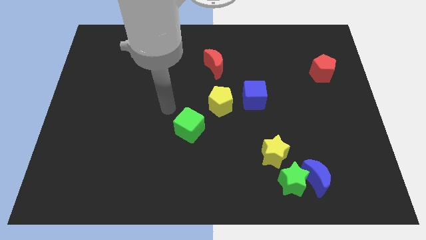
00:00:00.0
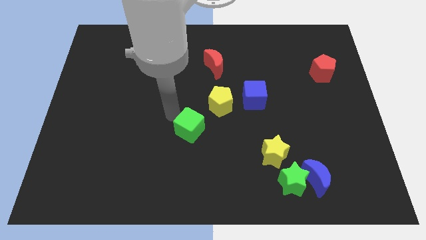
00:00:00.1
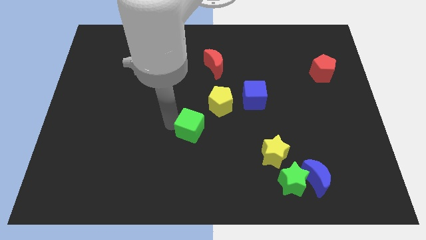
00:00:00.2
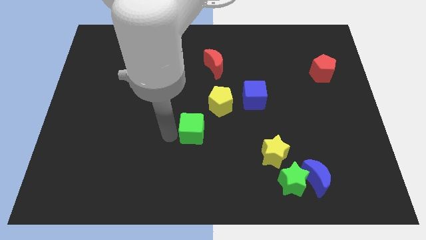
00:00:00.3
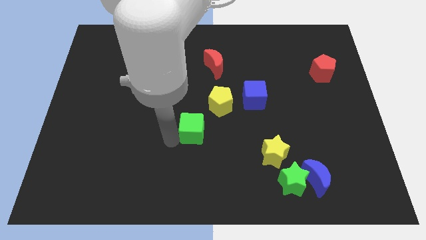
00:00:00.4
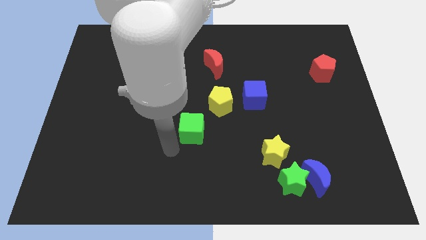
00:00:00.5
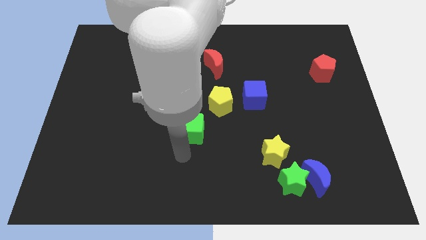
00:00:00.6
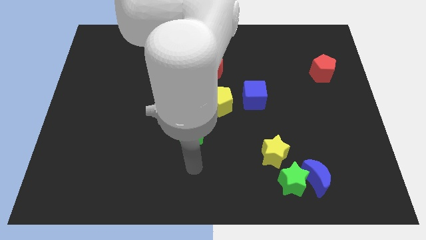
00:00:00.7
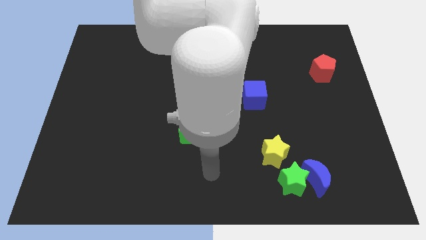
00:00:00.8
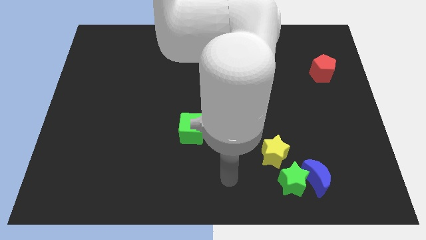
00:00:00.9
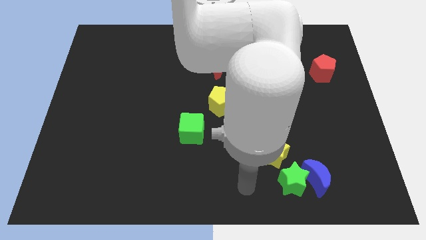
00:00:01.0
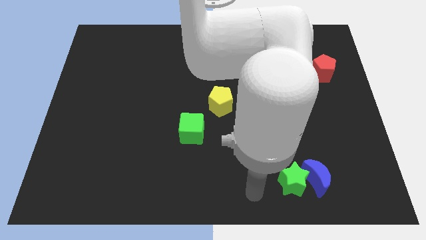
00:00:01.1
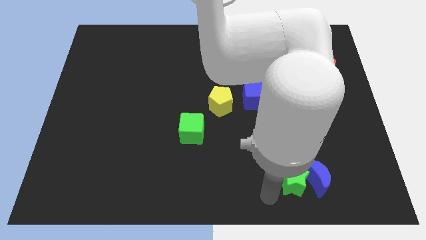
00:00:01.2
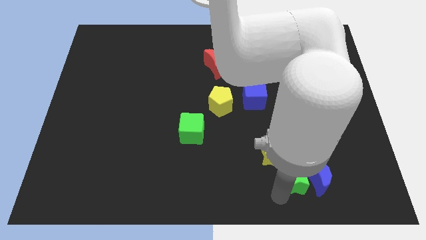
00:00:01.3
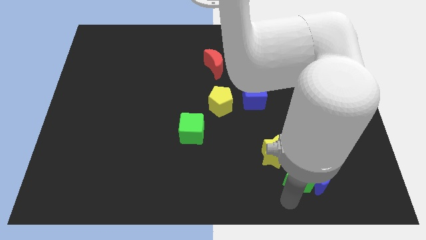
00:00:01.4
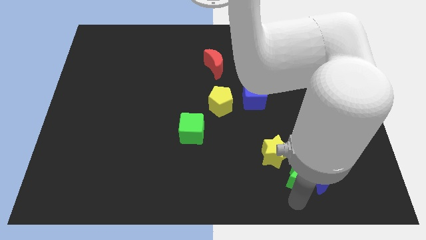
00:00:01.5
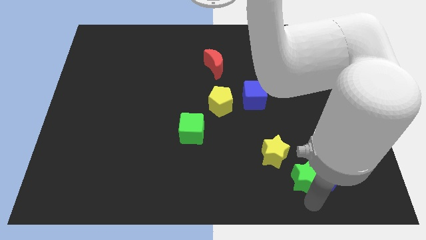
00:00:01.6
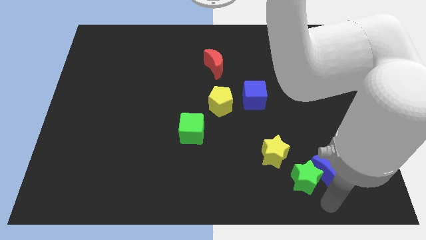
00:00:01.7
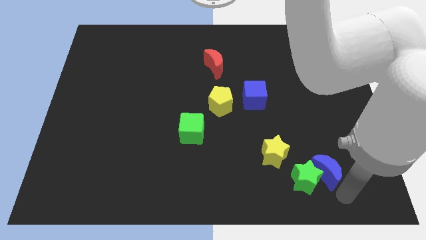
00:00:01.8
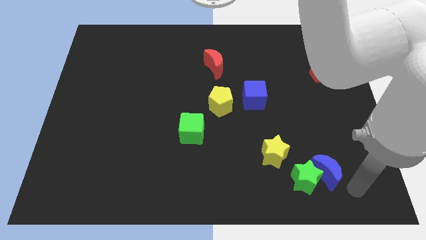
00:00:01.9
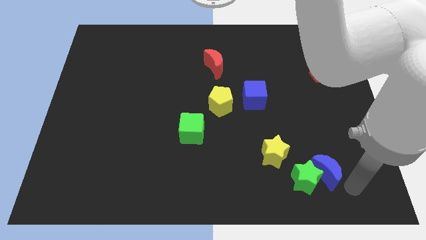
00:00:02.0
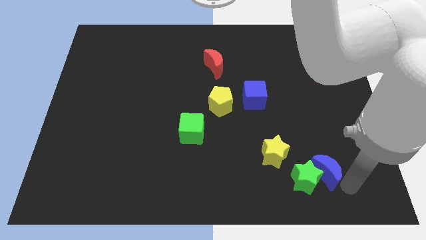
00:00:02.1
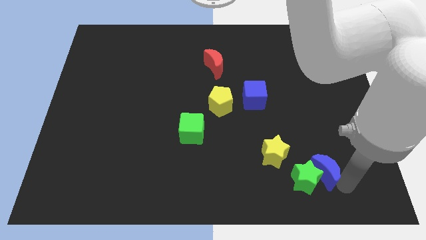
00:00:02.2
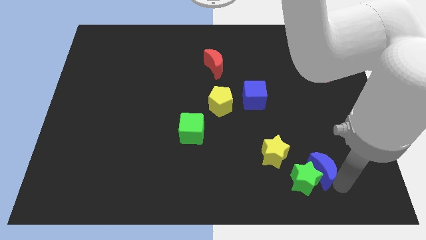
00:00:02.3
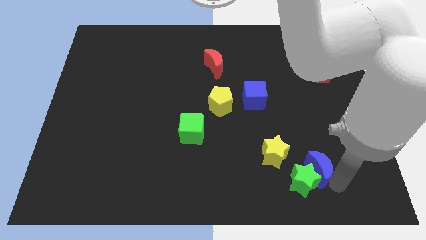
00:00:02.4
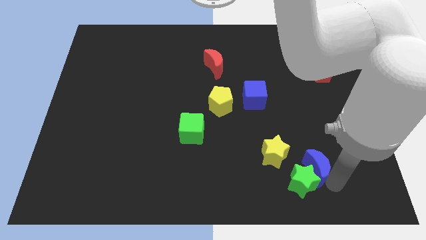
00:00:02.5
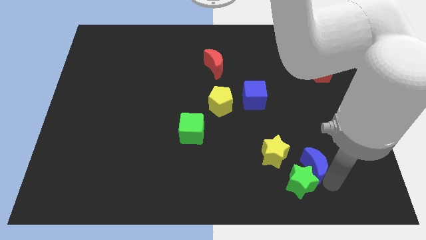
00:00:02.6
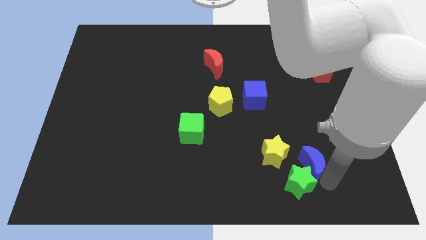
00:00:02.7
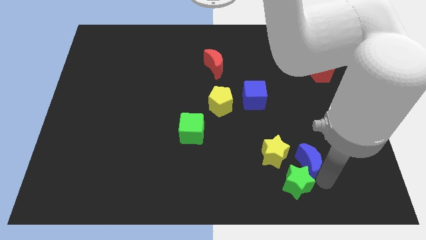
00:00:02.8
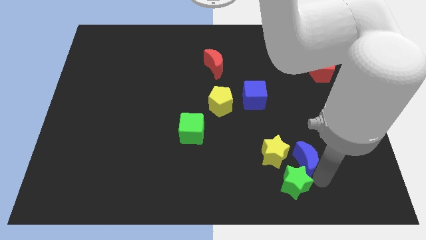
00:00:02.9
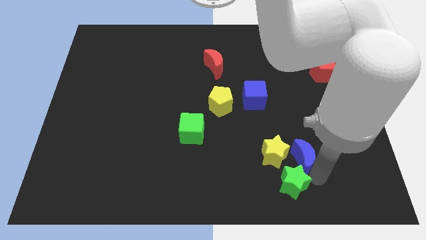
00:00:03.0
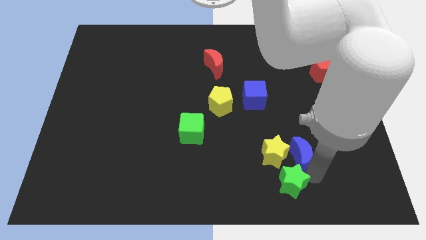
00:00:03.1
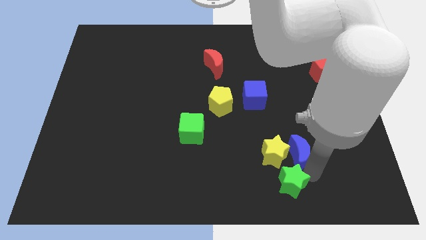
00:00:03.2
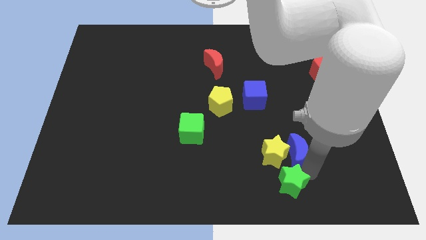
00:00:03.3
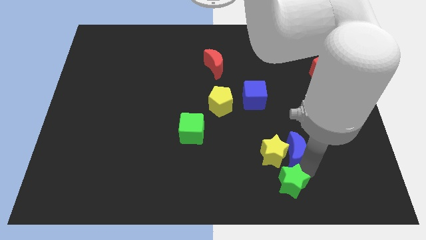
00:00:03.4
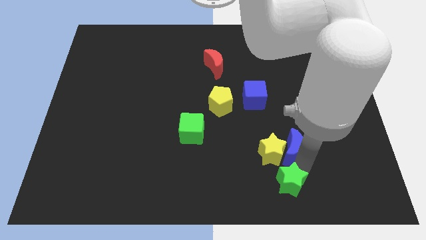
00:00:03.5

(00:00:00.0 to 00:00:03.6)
push the blue moon upwards and left diagonally a bit

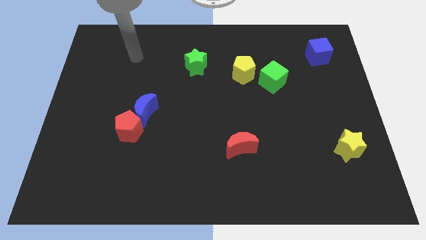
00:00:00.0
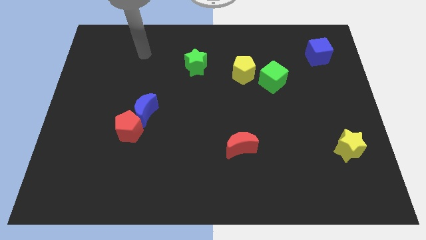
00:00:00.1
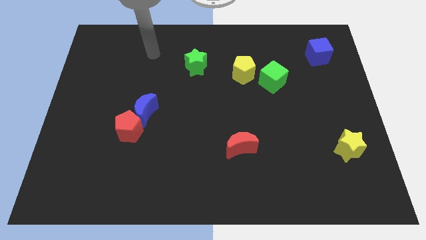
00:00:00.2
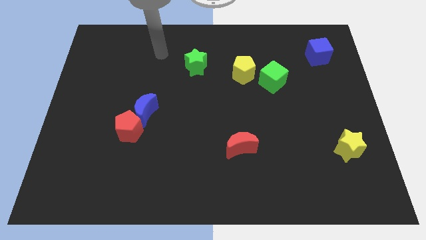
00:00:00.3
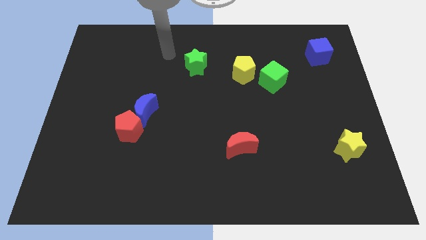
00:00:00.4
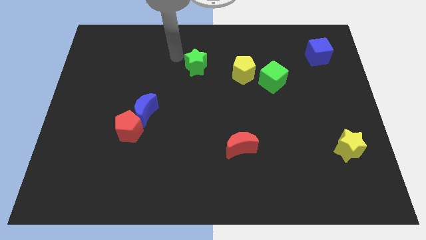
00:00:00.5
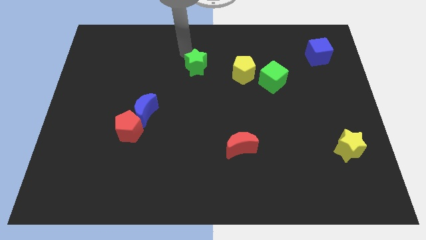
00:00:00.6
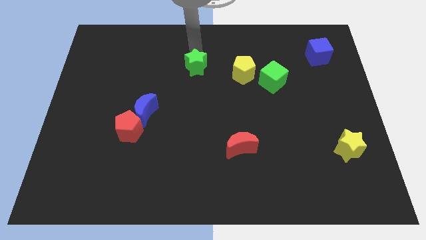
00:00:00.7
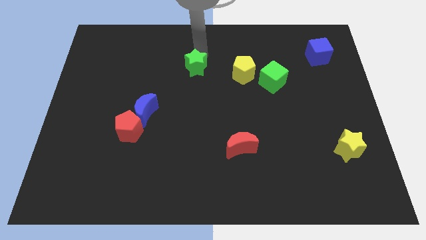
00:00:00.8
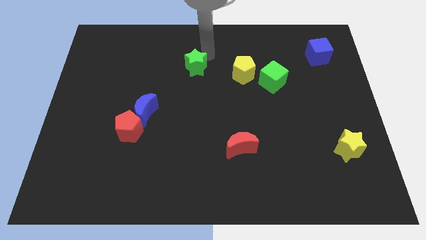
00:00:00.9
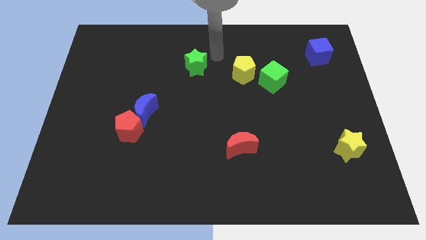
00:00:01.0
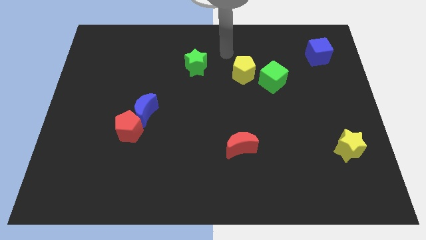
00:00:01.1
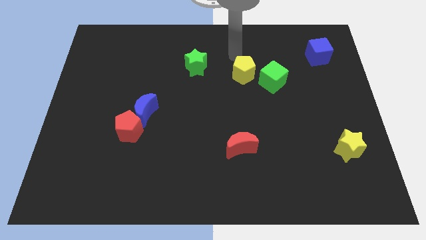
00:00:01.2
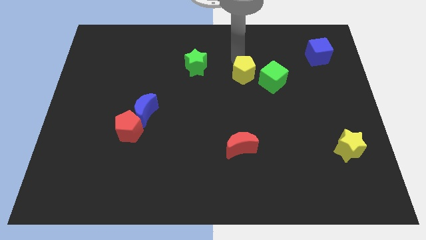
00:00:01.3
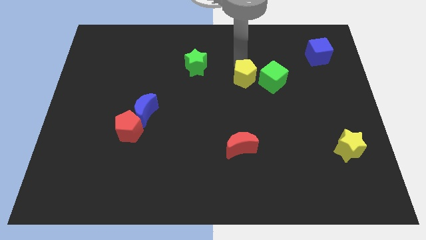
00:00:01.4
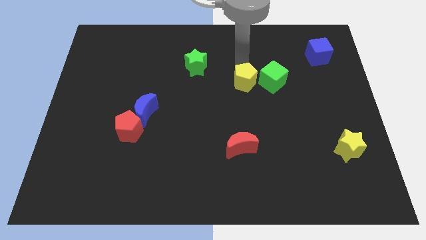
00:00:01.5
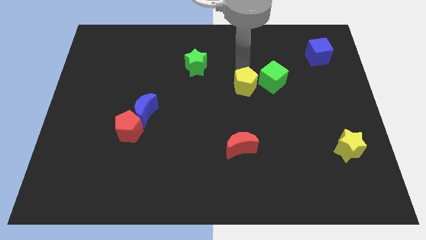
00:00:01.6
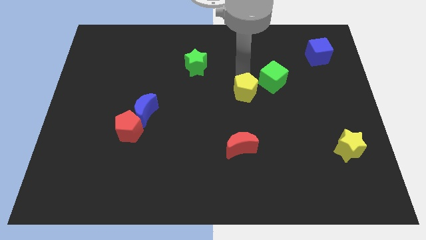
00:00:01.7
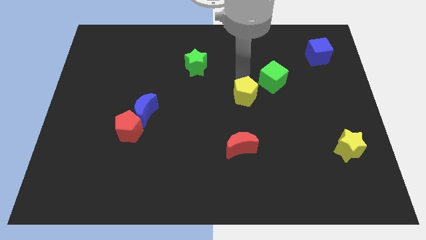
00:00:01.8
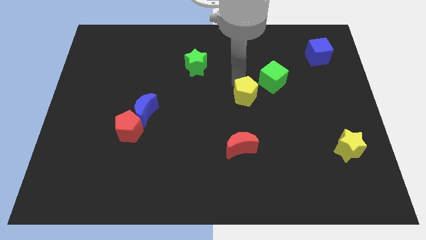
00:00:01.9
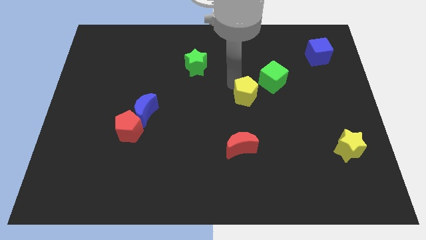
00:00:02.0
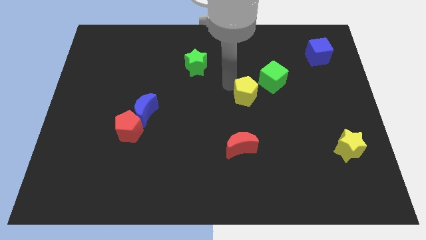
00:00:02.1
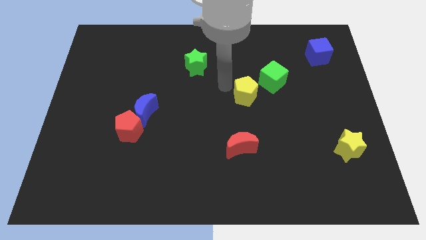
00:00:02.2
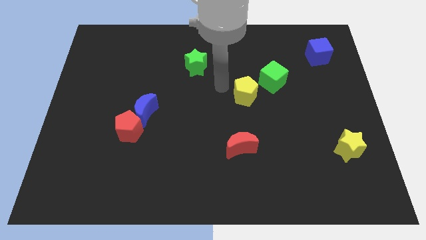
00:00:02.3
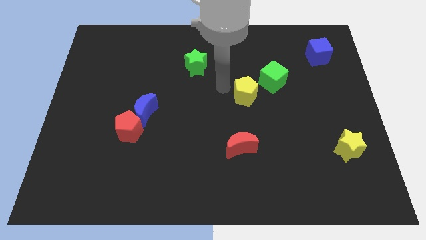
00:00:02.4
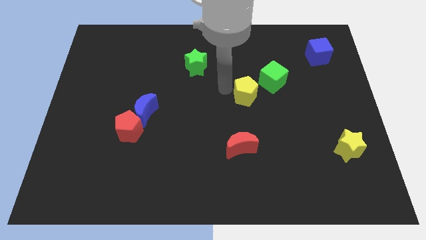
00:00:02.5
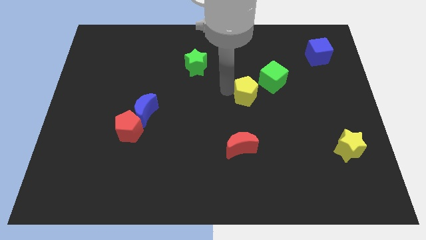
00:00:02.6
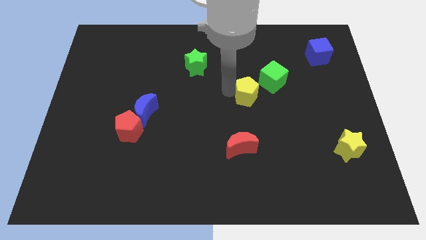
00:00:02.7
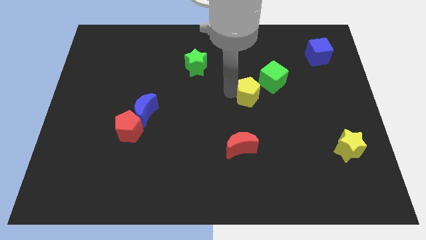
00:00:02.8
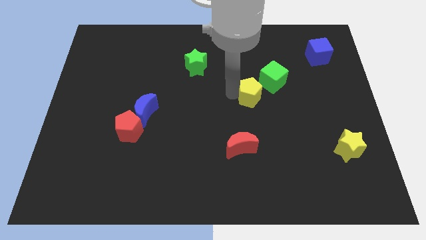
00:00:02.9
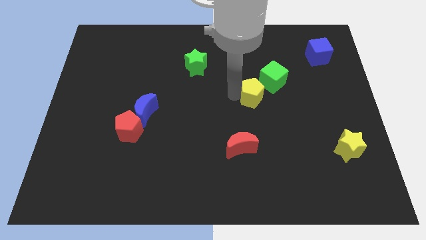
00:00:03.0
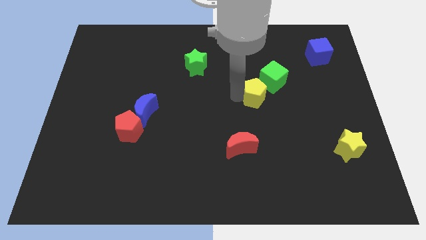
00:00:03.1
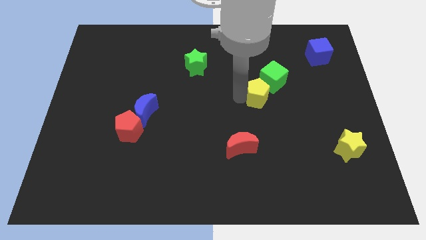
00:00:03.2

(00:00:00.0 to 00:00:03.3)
slightly push the yellow pentagon downwards and to the right

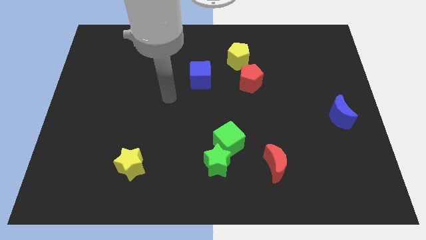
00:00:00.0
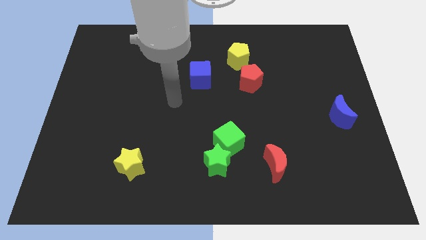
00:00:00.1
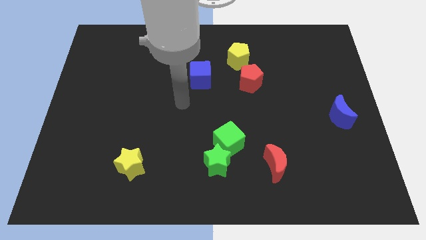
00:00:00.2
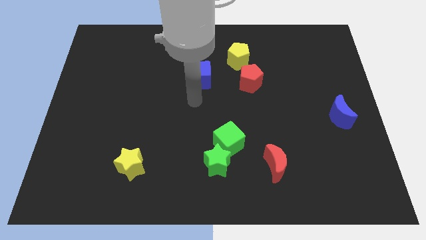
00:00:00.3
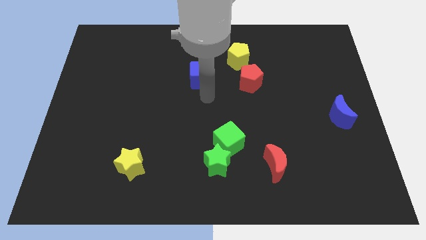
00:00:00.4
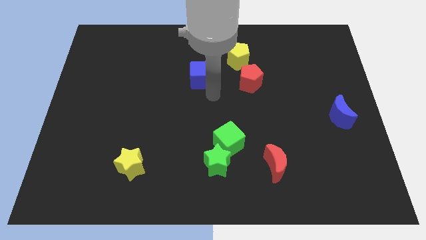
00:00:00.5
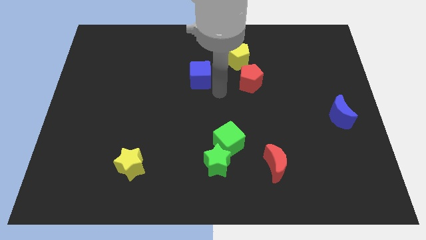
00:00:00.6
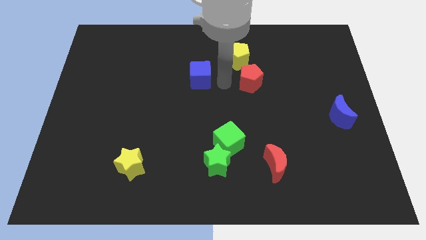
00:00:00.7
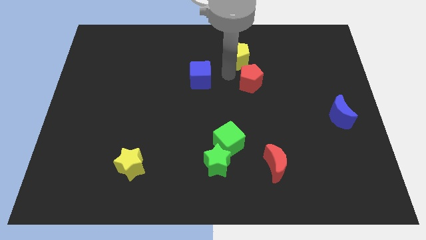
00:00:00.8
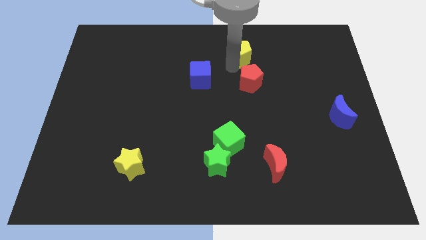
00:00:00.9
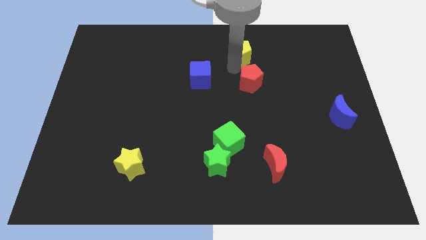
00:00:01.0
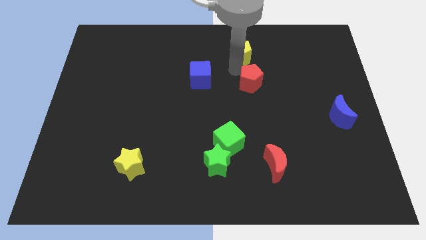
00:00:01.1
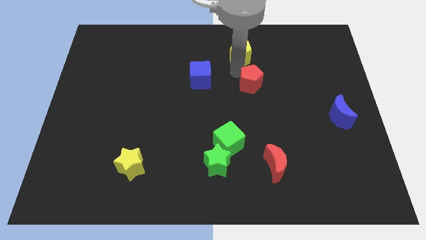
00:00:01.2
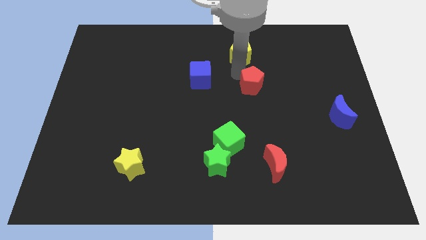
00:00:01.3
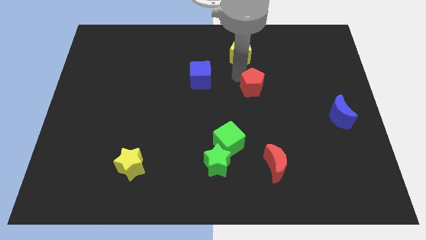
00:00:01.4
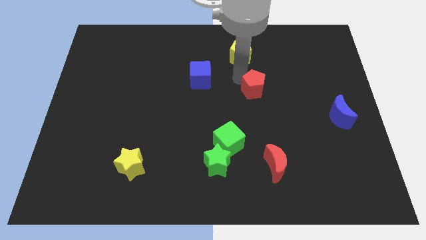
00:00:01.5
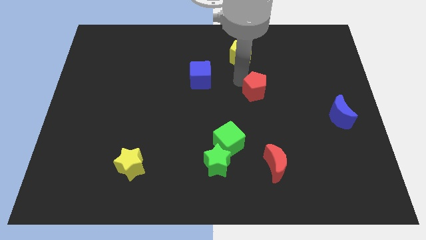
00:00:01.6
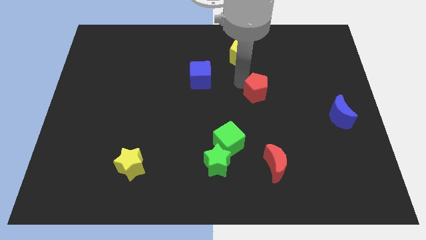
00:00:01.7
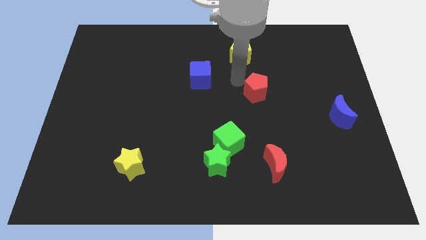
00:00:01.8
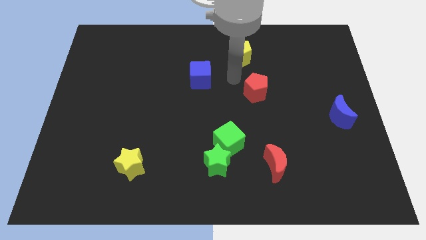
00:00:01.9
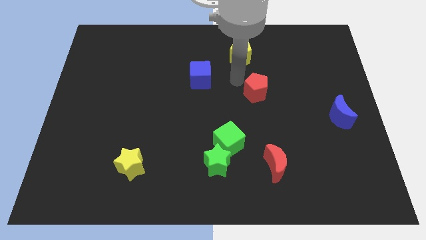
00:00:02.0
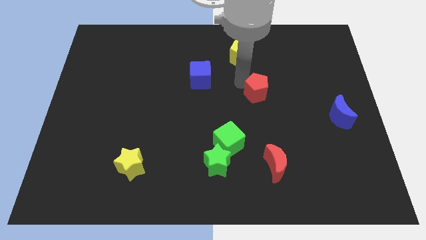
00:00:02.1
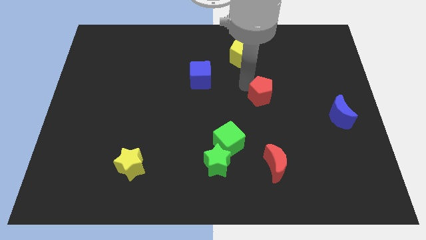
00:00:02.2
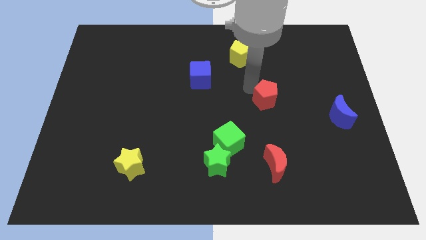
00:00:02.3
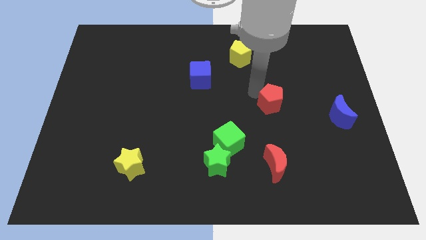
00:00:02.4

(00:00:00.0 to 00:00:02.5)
move the red pentagon down and right diagonally somewhat
